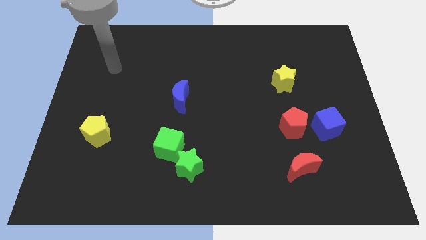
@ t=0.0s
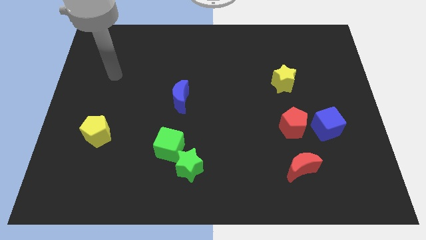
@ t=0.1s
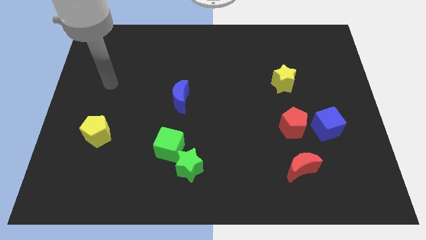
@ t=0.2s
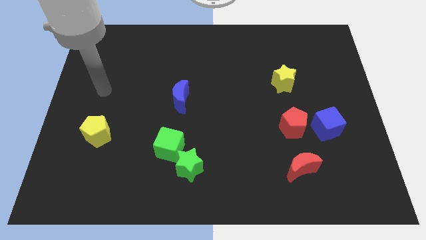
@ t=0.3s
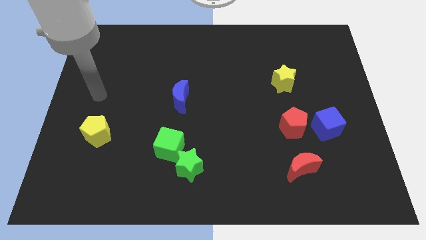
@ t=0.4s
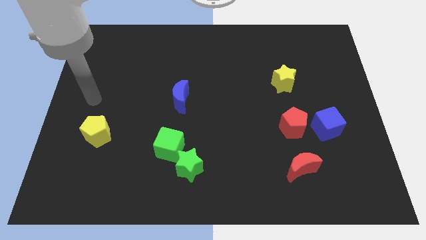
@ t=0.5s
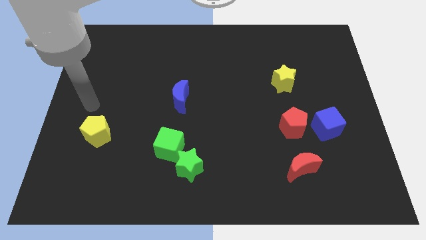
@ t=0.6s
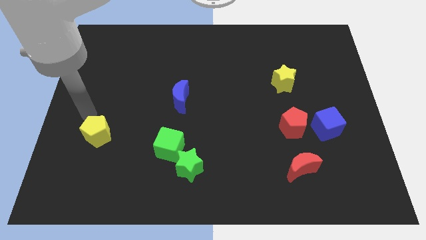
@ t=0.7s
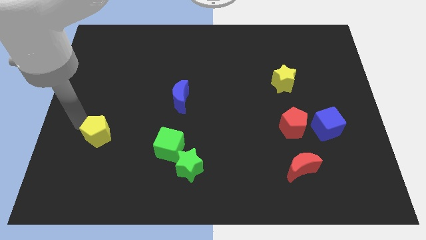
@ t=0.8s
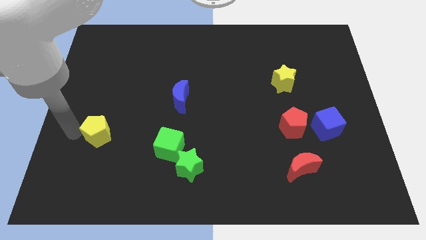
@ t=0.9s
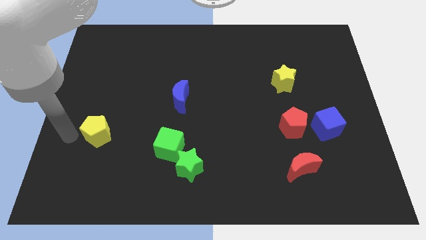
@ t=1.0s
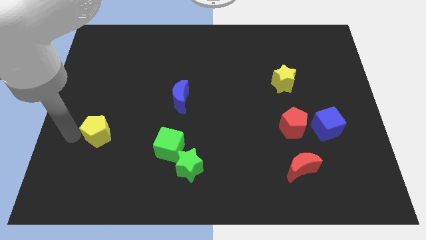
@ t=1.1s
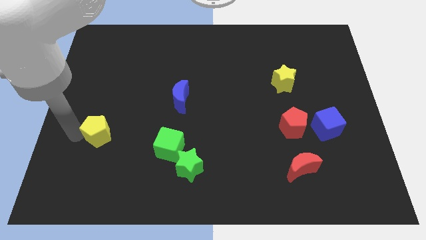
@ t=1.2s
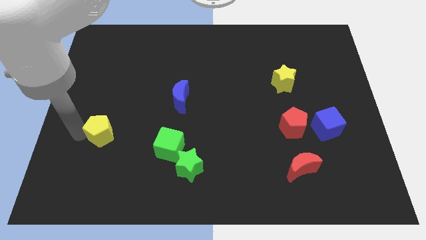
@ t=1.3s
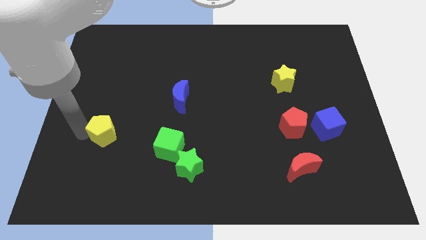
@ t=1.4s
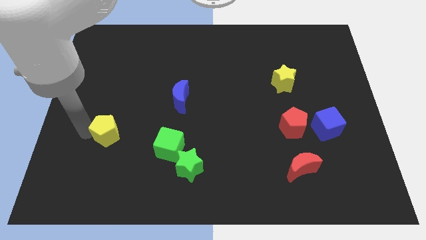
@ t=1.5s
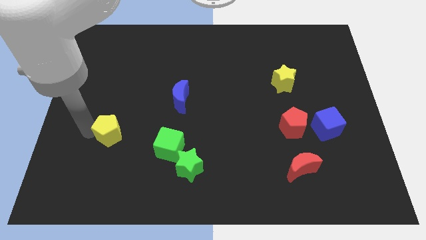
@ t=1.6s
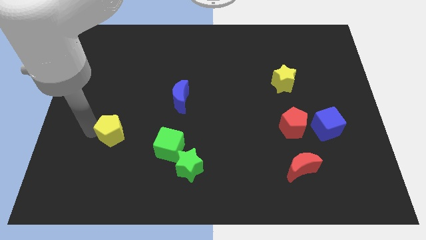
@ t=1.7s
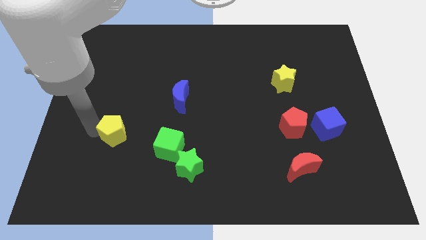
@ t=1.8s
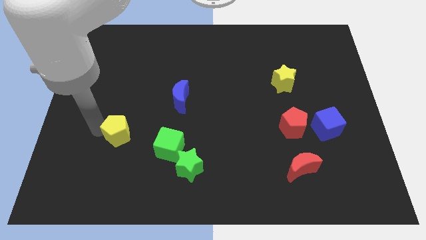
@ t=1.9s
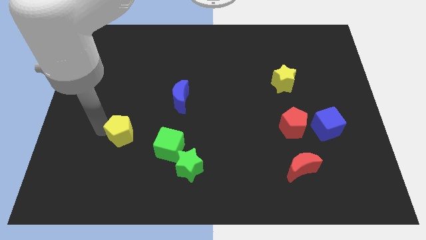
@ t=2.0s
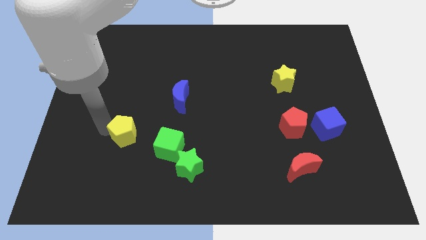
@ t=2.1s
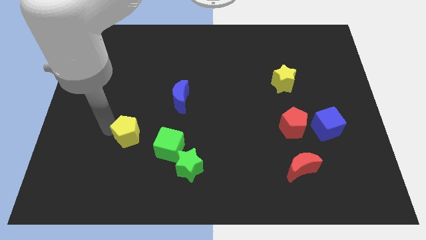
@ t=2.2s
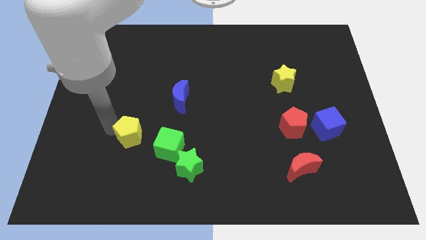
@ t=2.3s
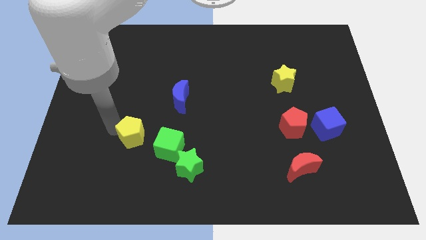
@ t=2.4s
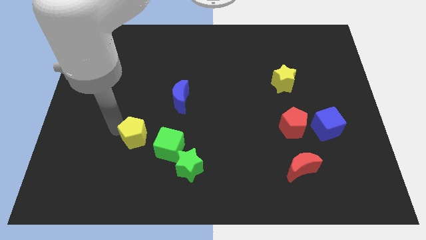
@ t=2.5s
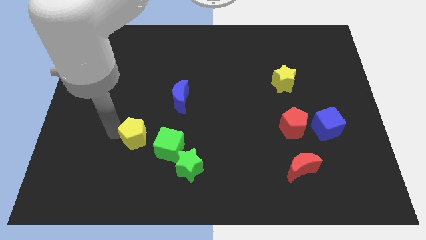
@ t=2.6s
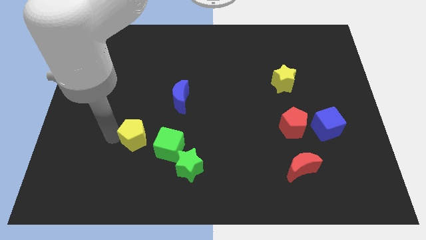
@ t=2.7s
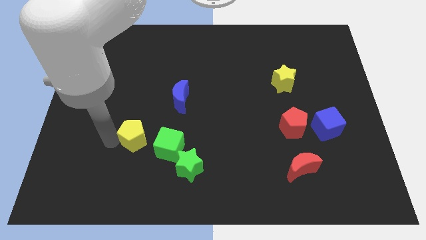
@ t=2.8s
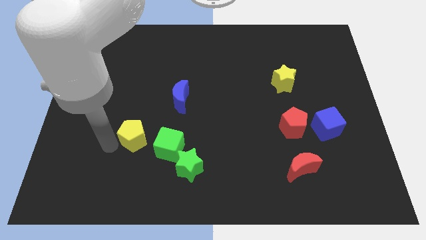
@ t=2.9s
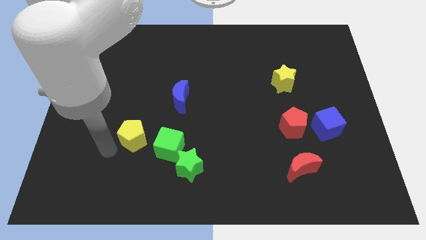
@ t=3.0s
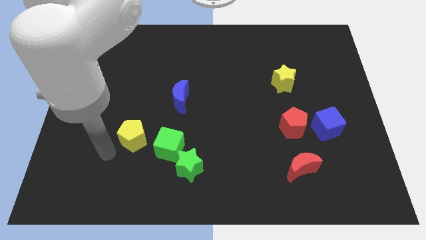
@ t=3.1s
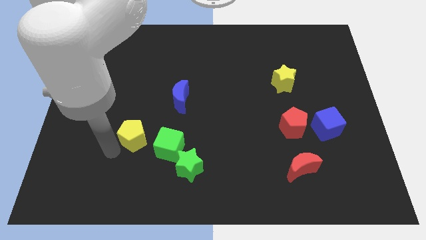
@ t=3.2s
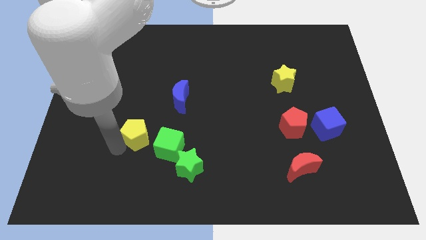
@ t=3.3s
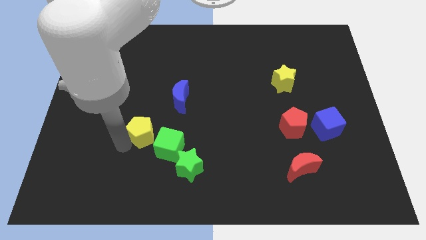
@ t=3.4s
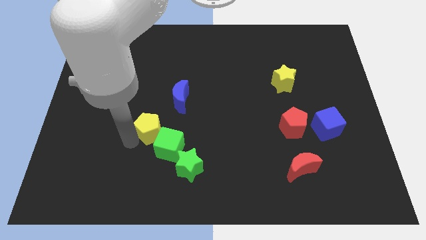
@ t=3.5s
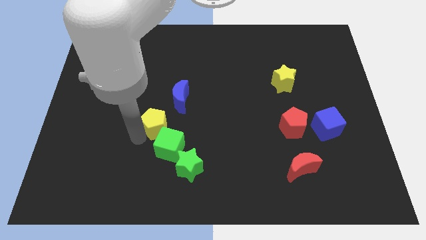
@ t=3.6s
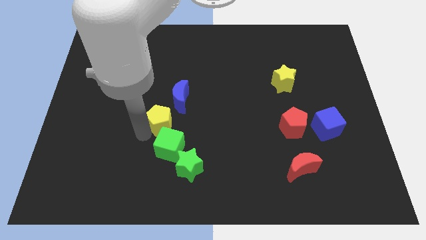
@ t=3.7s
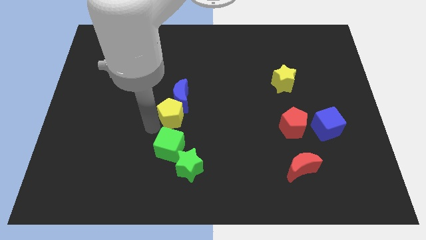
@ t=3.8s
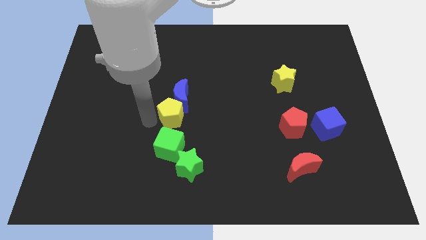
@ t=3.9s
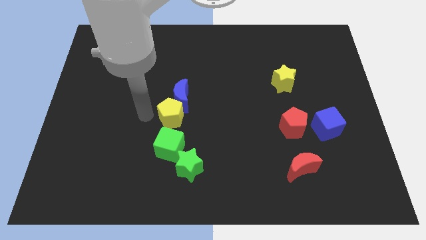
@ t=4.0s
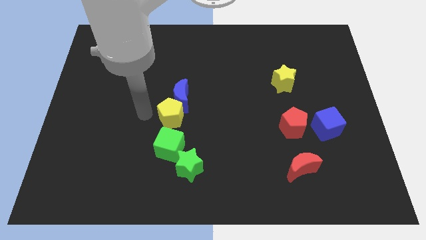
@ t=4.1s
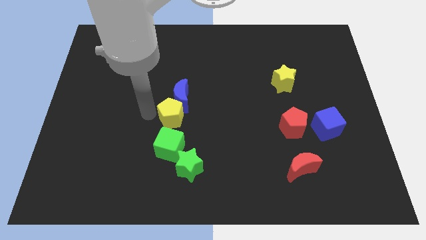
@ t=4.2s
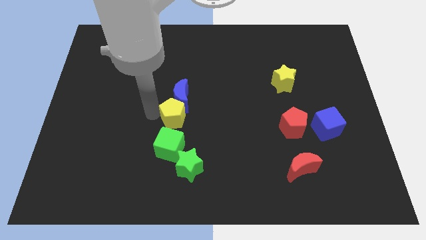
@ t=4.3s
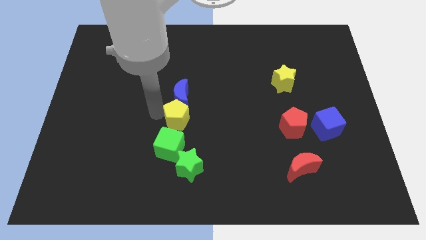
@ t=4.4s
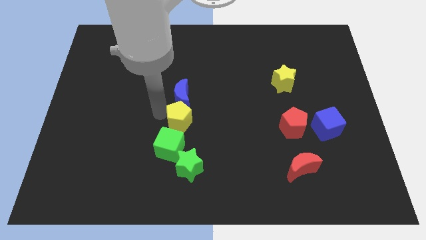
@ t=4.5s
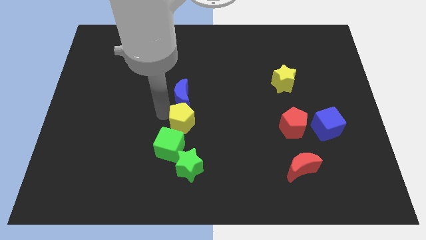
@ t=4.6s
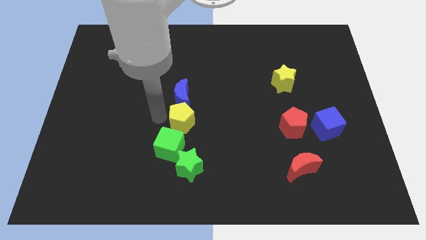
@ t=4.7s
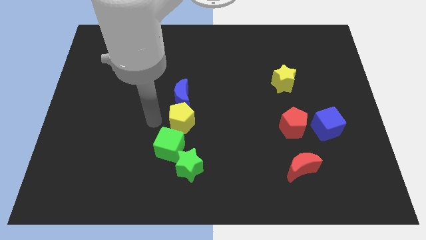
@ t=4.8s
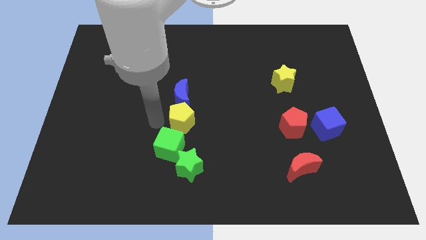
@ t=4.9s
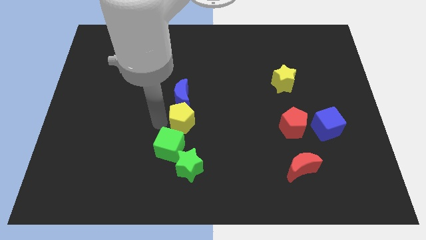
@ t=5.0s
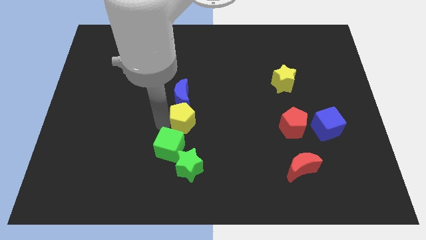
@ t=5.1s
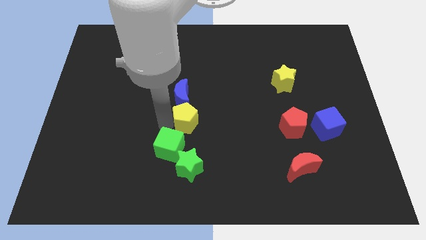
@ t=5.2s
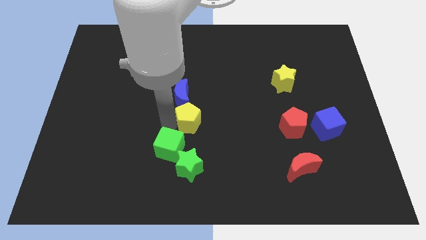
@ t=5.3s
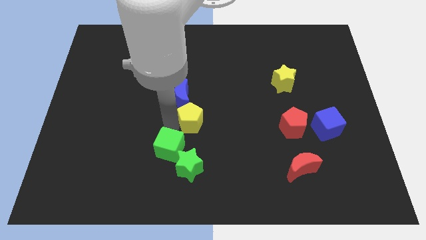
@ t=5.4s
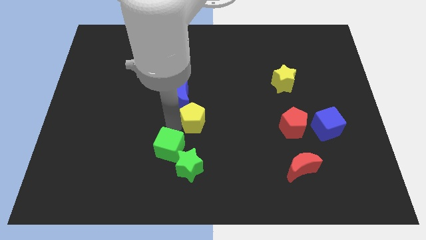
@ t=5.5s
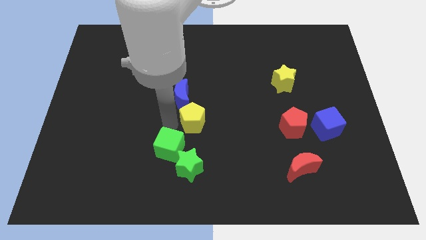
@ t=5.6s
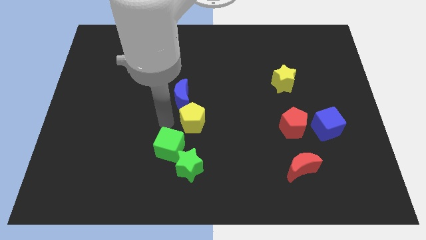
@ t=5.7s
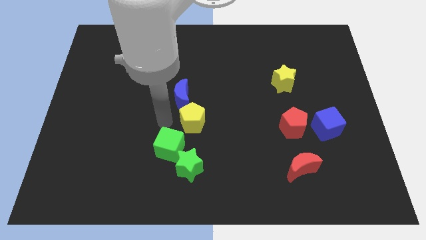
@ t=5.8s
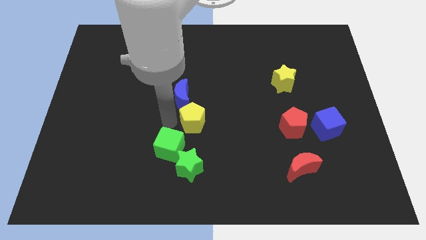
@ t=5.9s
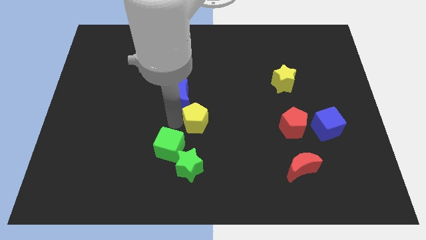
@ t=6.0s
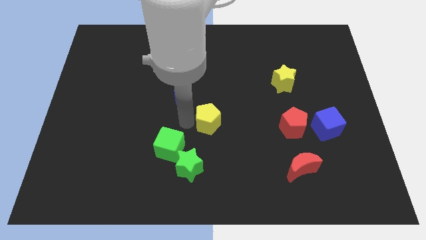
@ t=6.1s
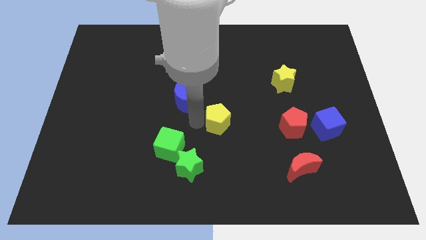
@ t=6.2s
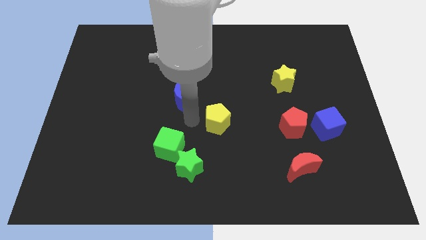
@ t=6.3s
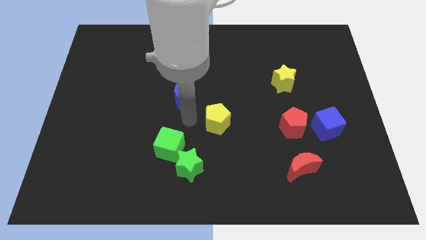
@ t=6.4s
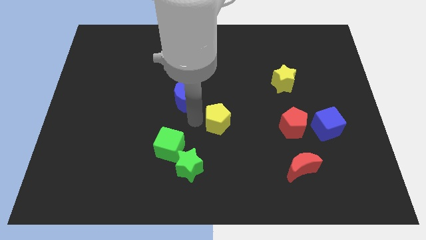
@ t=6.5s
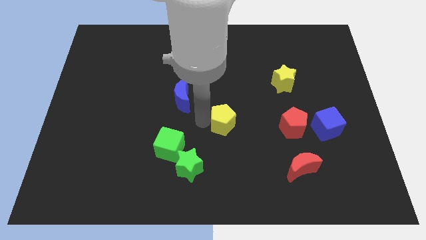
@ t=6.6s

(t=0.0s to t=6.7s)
push the yellow pentagon to the left side of the red pentagon

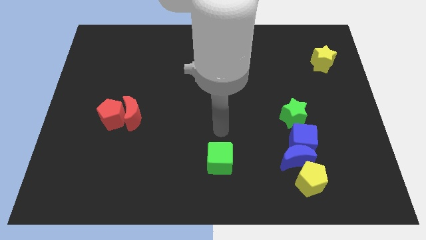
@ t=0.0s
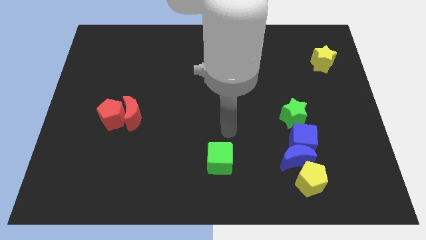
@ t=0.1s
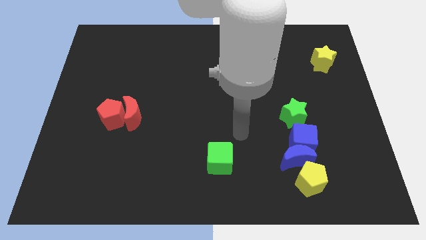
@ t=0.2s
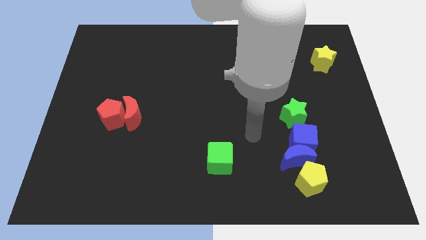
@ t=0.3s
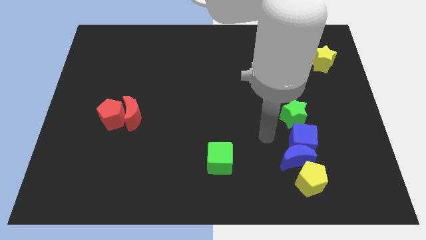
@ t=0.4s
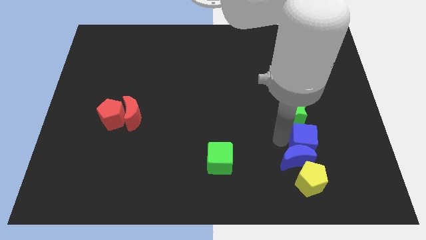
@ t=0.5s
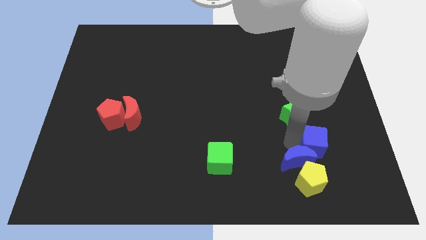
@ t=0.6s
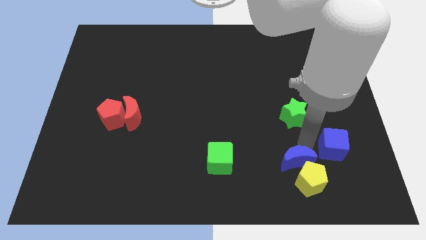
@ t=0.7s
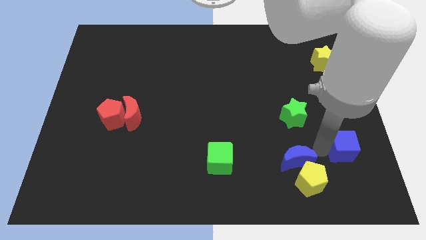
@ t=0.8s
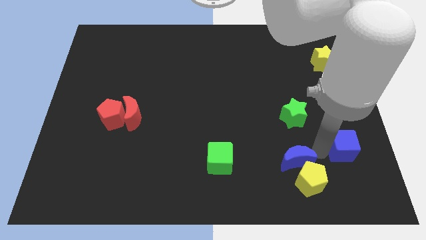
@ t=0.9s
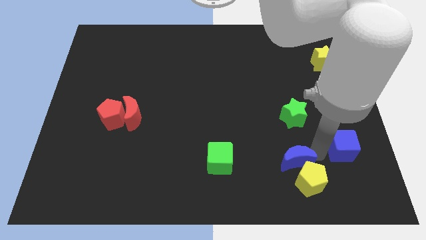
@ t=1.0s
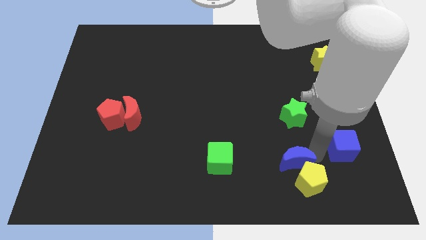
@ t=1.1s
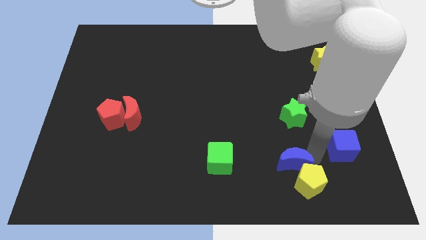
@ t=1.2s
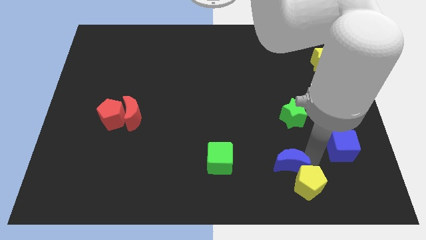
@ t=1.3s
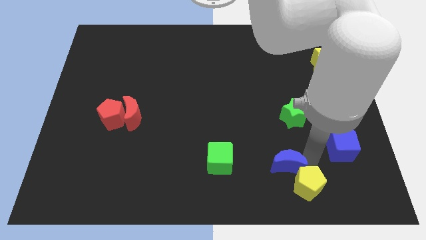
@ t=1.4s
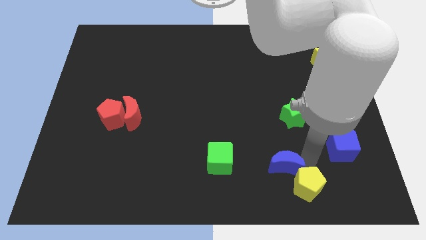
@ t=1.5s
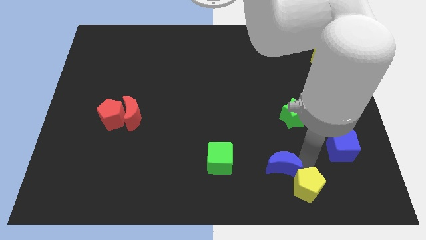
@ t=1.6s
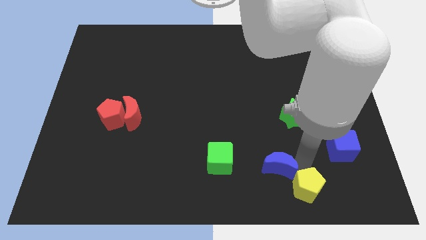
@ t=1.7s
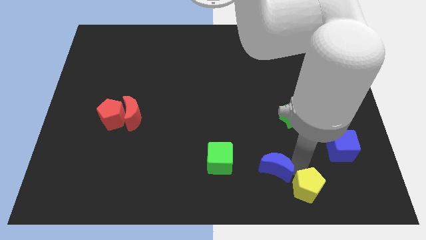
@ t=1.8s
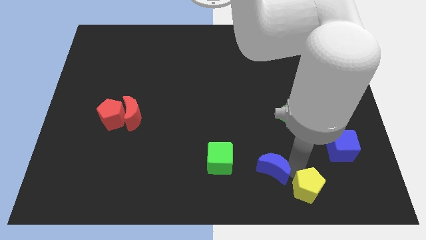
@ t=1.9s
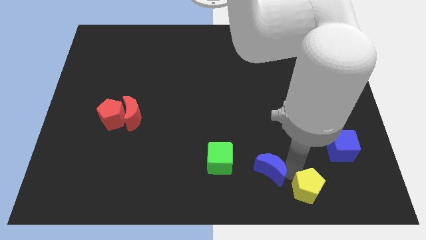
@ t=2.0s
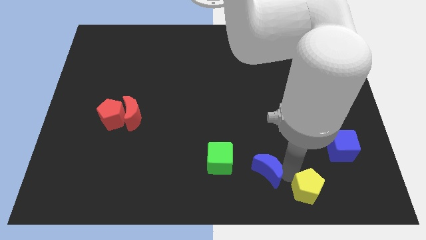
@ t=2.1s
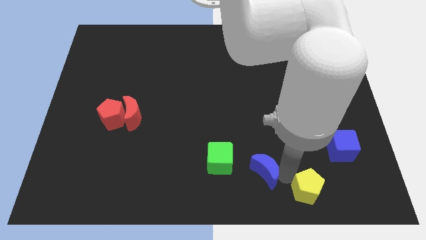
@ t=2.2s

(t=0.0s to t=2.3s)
move the blue moon diagonally down and to the right of the green cube
